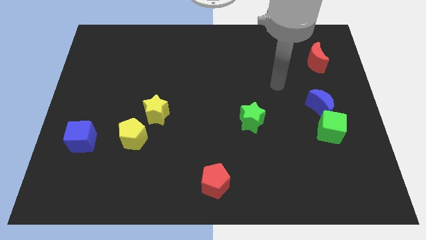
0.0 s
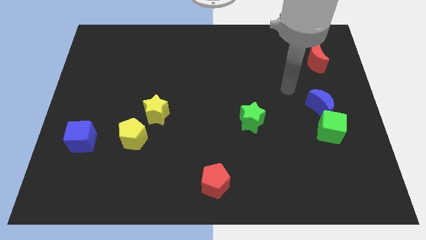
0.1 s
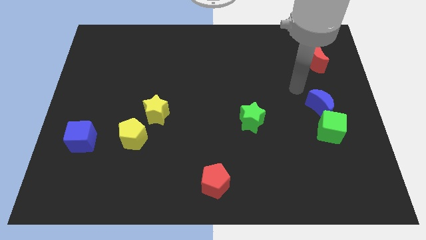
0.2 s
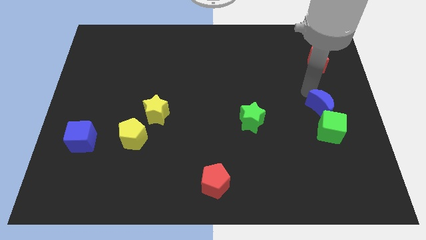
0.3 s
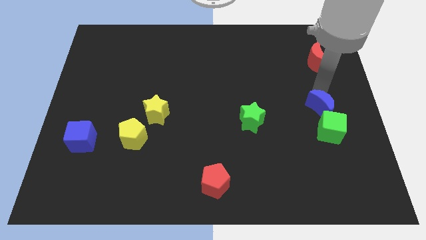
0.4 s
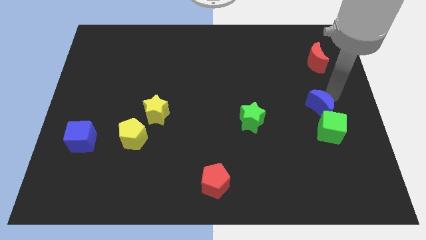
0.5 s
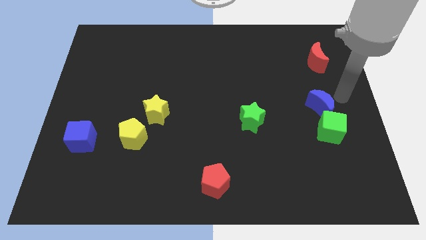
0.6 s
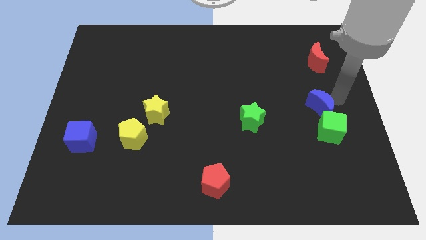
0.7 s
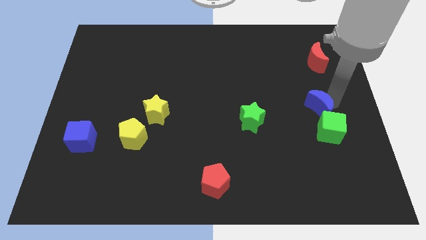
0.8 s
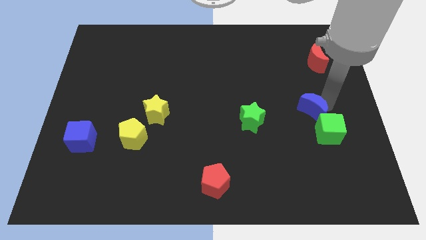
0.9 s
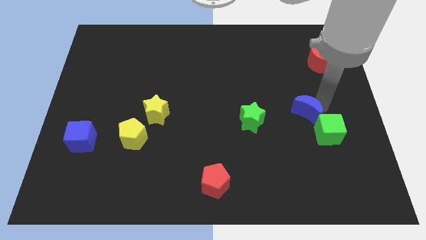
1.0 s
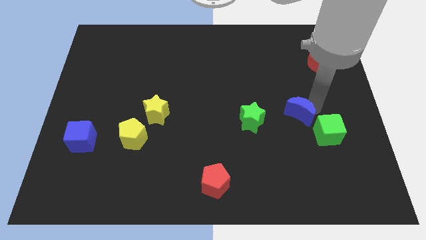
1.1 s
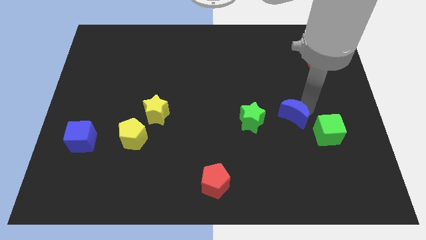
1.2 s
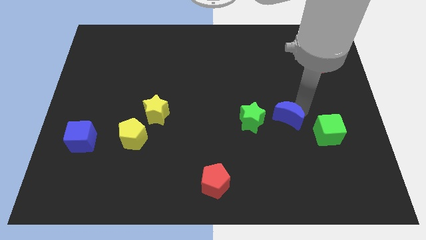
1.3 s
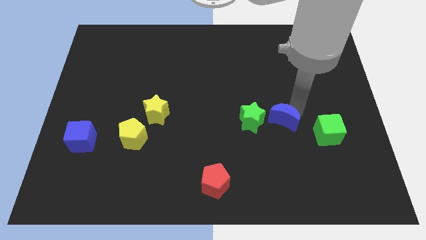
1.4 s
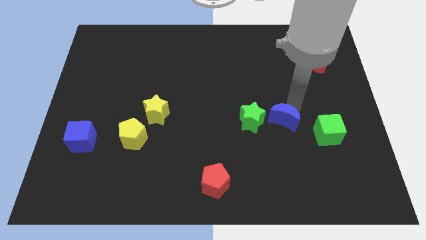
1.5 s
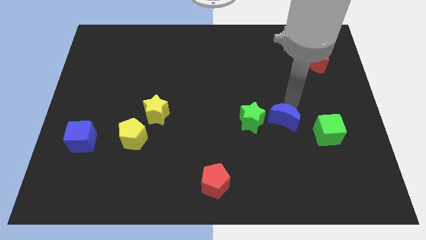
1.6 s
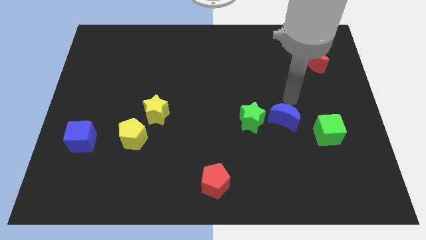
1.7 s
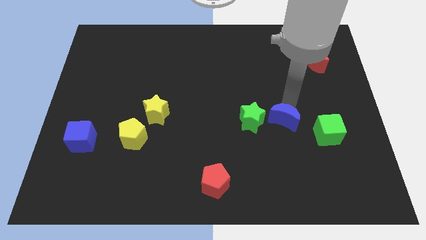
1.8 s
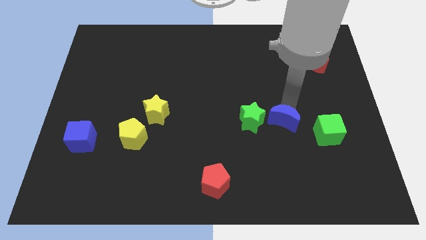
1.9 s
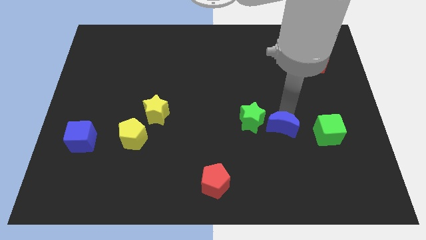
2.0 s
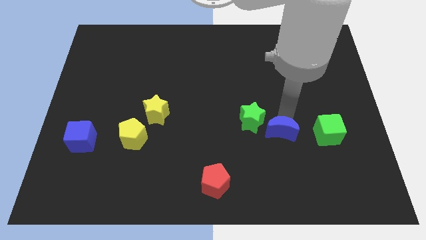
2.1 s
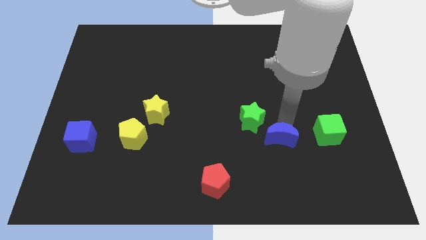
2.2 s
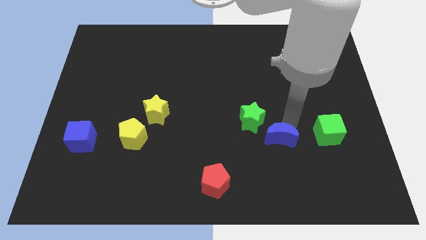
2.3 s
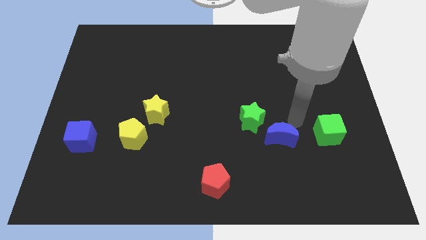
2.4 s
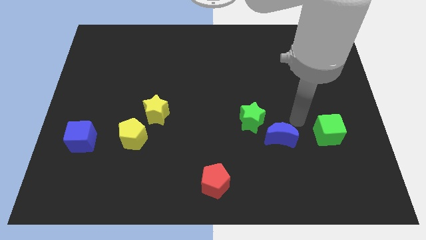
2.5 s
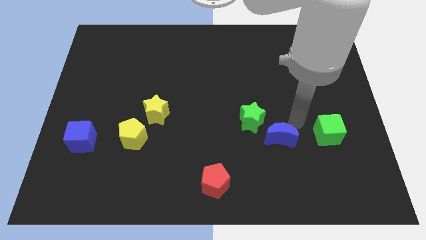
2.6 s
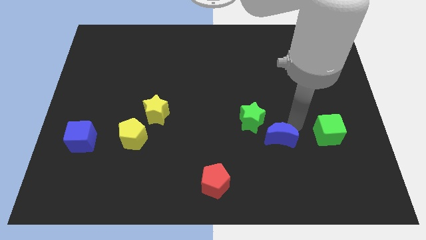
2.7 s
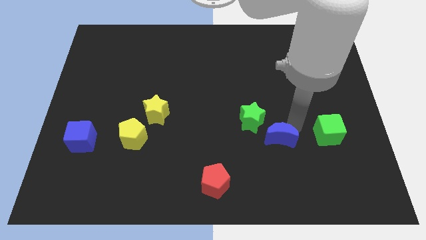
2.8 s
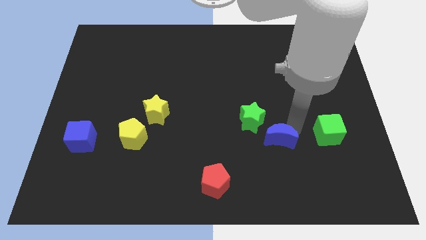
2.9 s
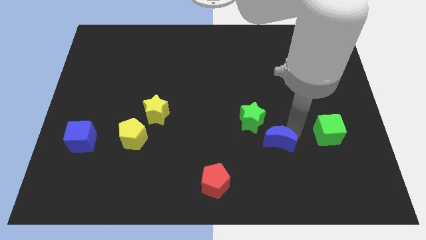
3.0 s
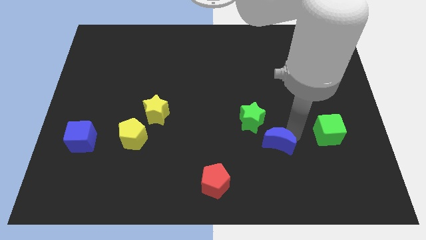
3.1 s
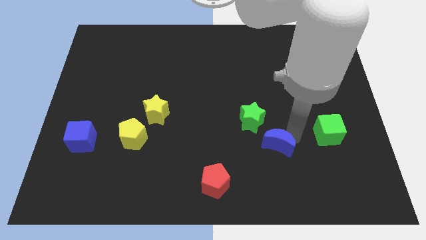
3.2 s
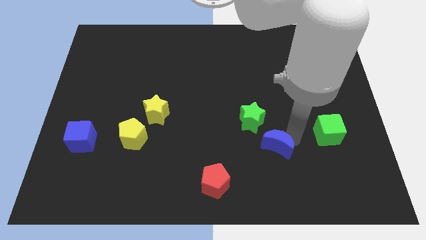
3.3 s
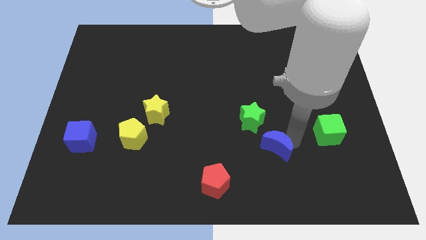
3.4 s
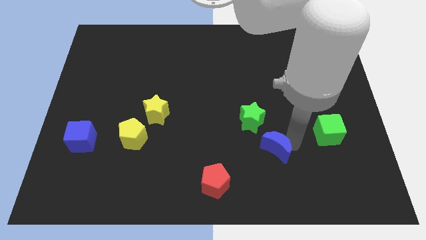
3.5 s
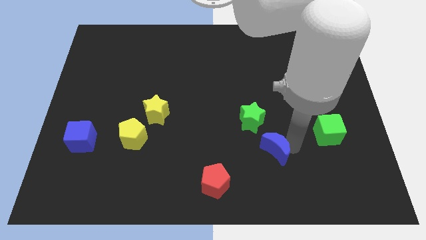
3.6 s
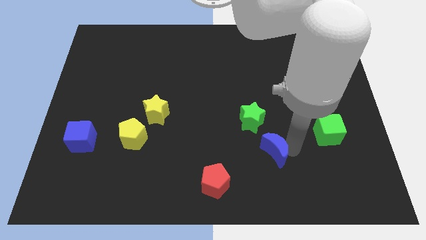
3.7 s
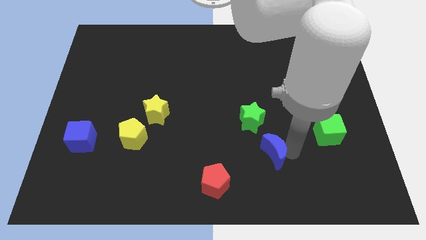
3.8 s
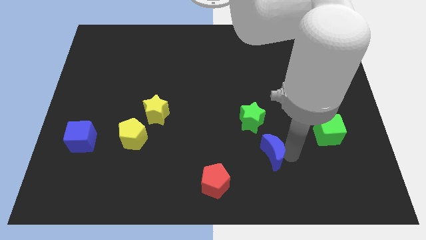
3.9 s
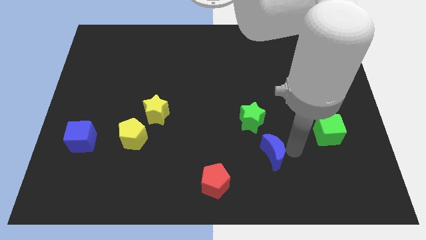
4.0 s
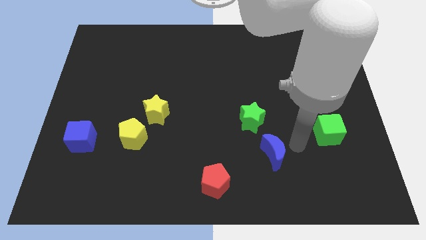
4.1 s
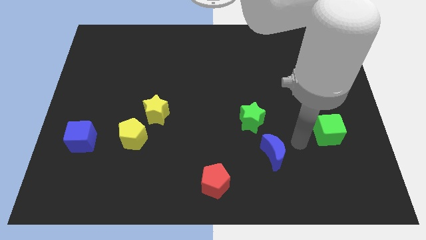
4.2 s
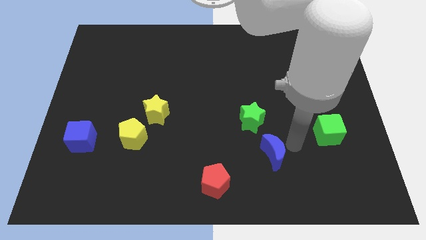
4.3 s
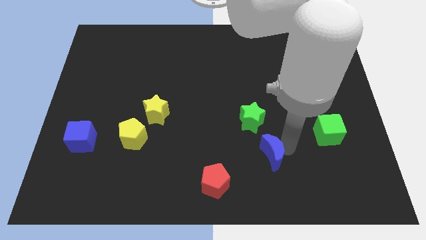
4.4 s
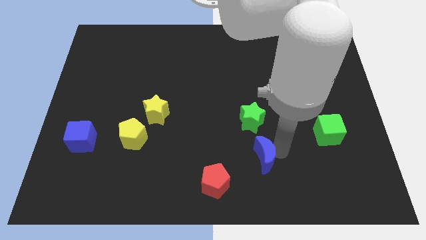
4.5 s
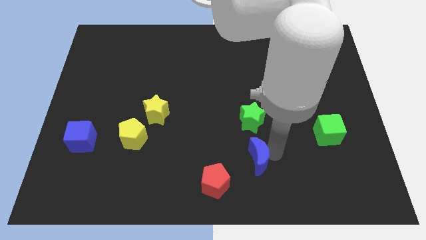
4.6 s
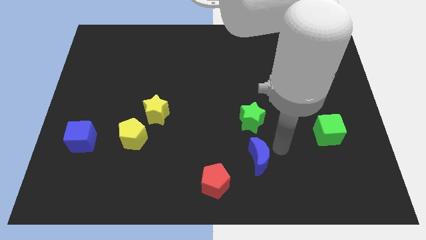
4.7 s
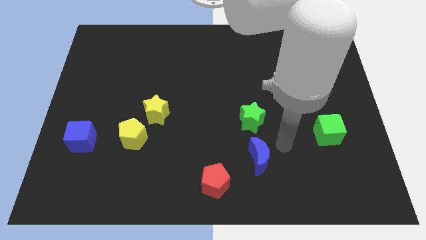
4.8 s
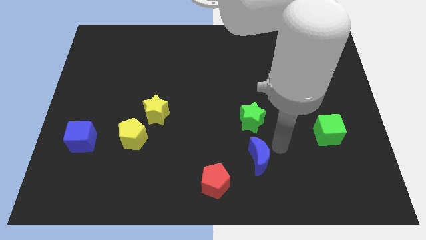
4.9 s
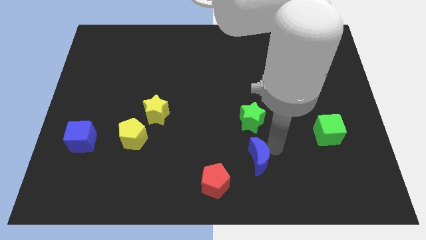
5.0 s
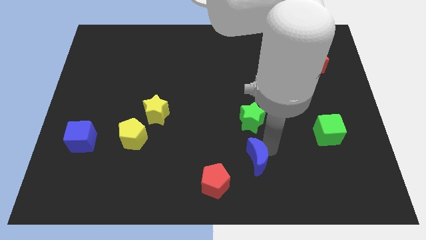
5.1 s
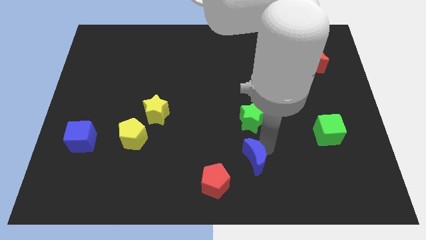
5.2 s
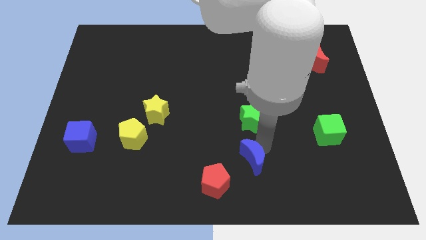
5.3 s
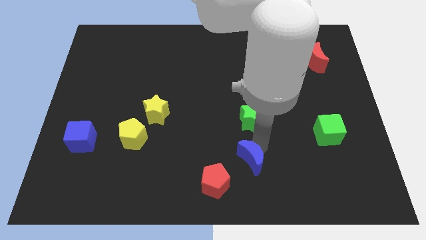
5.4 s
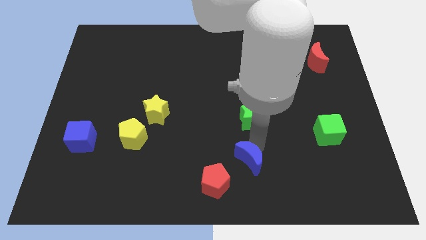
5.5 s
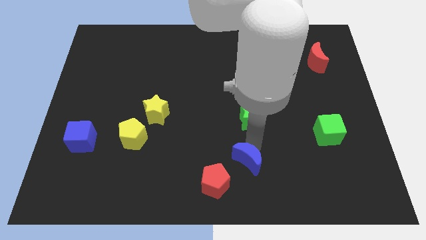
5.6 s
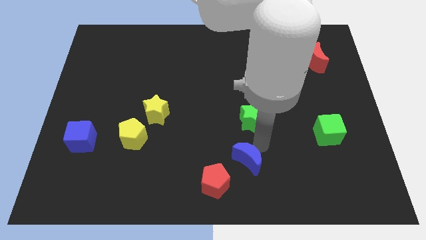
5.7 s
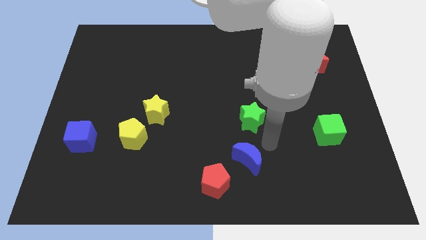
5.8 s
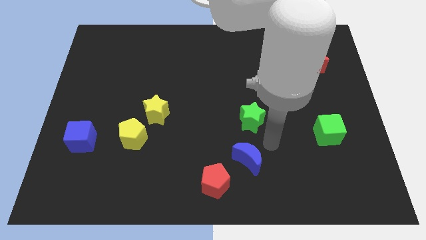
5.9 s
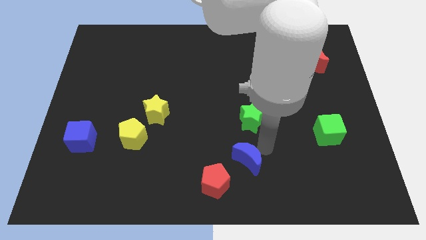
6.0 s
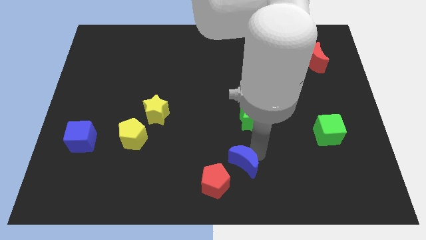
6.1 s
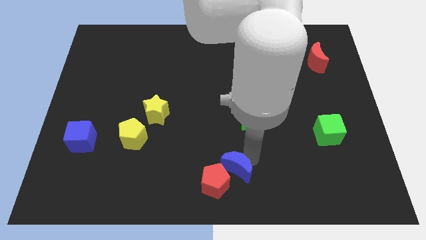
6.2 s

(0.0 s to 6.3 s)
push the blue moon towards the red pentagon

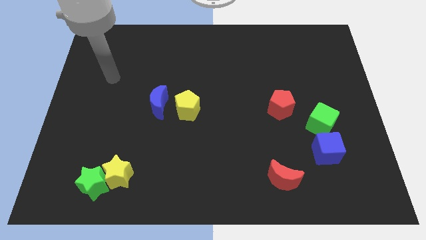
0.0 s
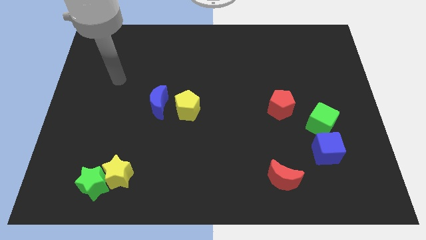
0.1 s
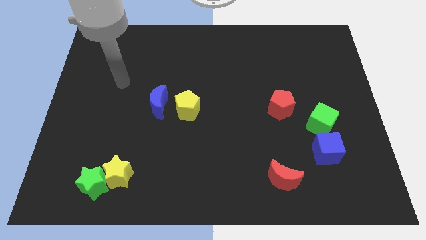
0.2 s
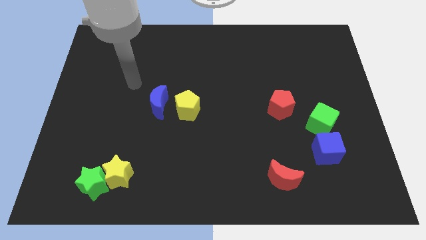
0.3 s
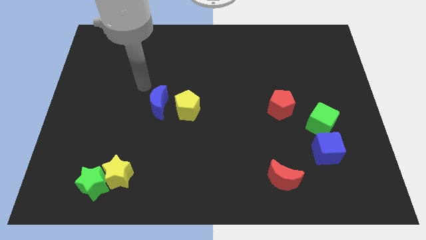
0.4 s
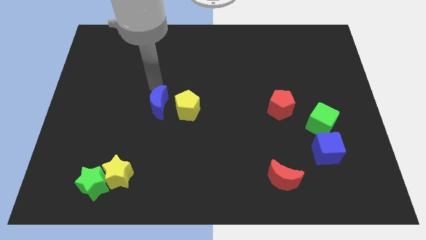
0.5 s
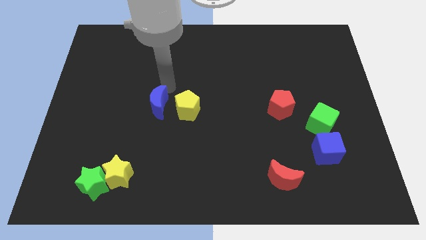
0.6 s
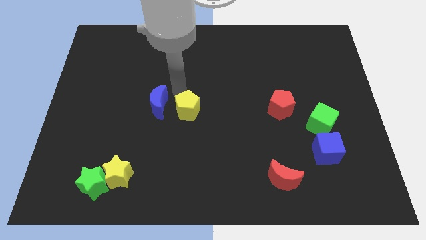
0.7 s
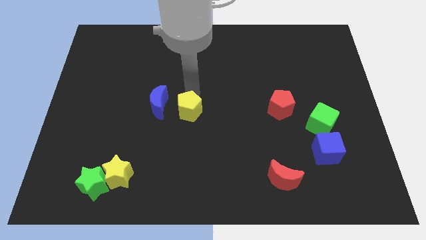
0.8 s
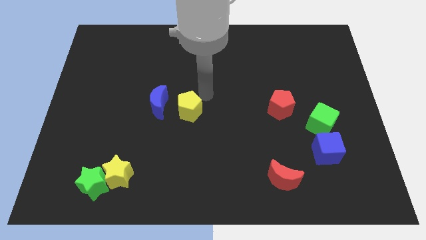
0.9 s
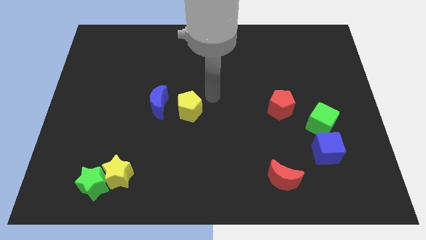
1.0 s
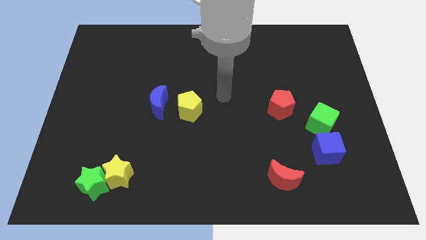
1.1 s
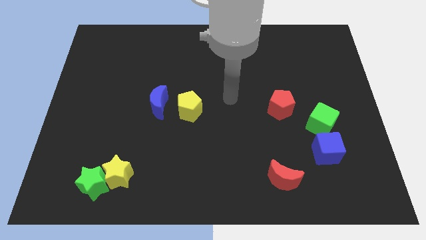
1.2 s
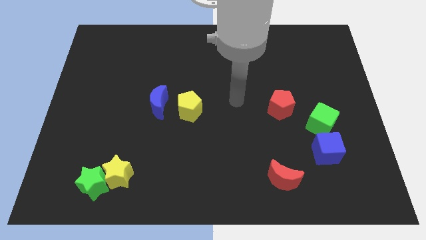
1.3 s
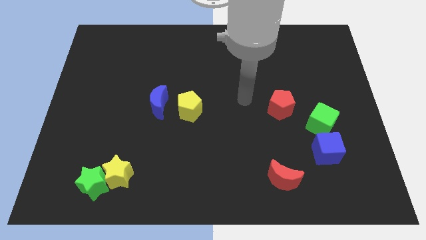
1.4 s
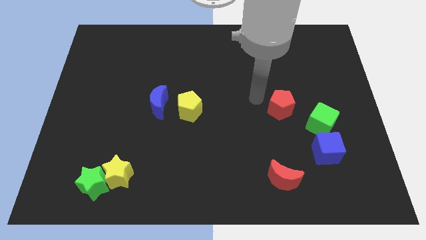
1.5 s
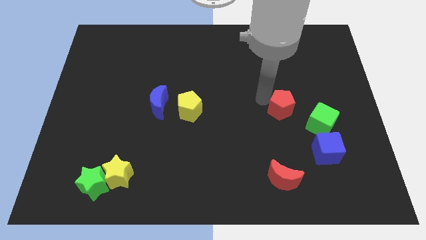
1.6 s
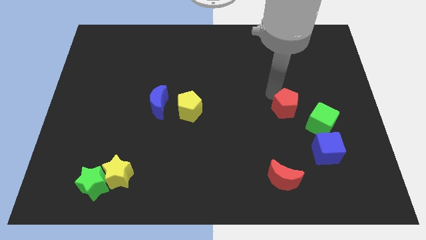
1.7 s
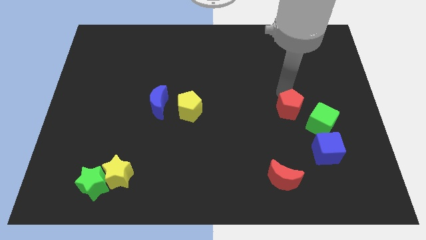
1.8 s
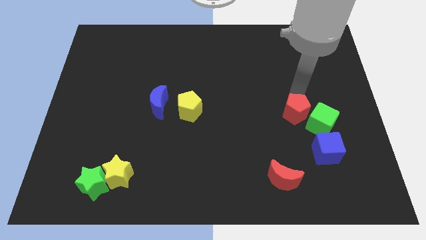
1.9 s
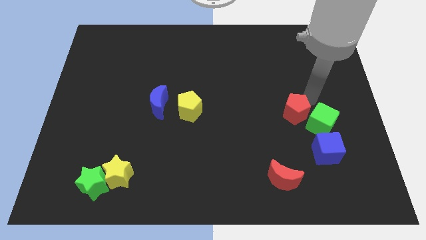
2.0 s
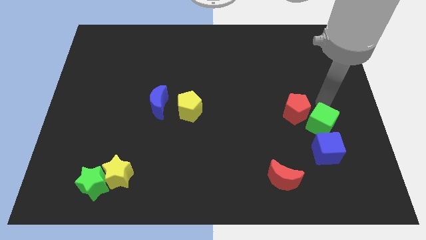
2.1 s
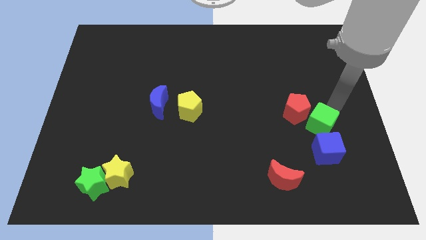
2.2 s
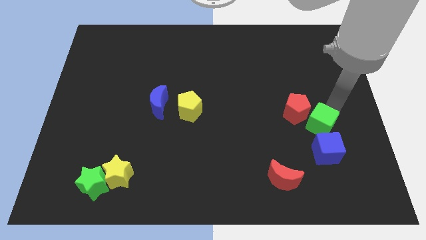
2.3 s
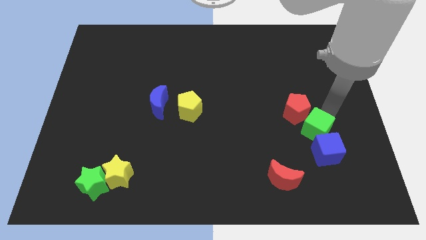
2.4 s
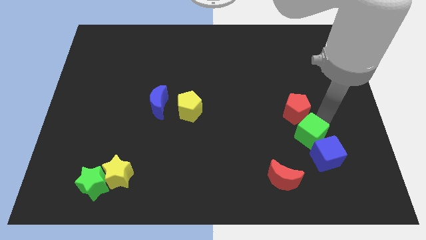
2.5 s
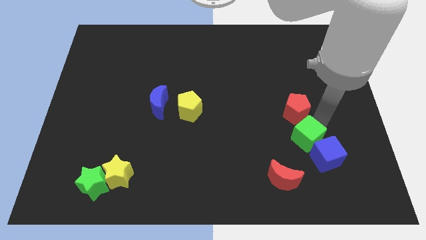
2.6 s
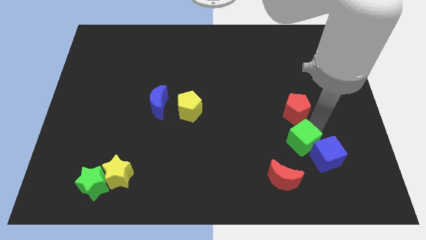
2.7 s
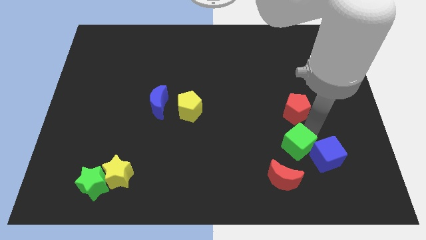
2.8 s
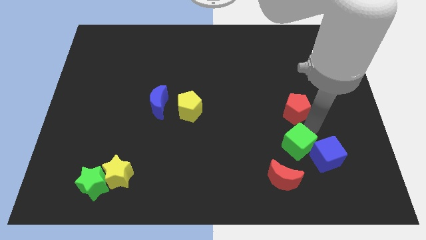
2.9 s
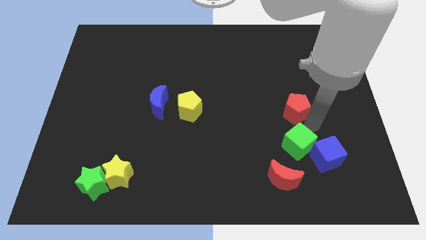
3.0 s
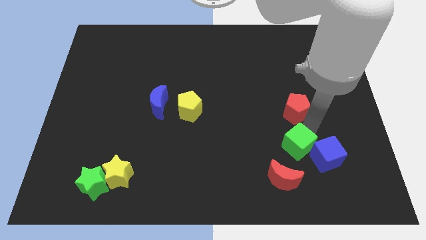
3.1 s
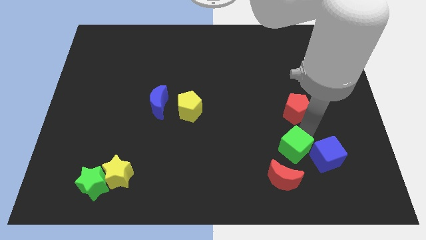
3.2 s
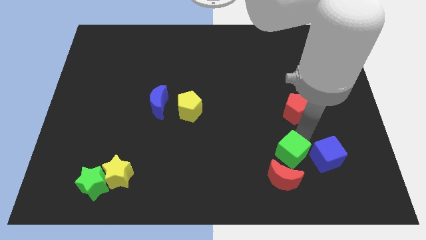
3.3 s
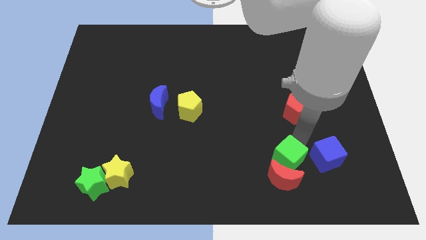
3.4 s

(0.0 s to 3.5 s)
slide the green cube towards the red moon
